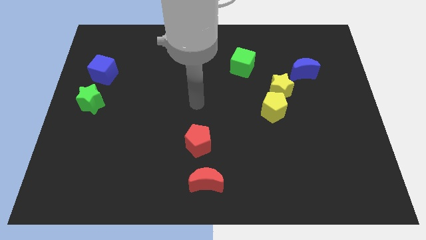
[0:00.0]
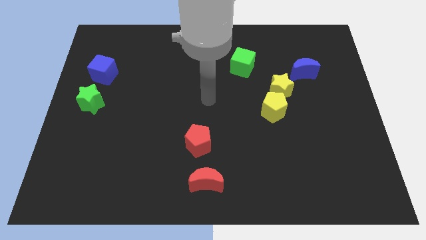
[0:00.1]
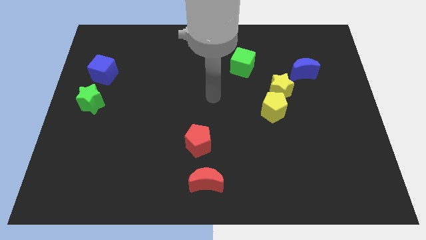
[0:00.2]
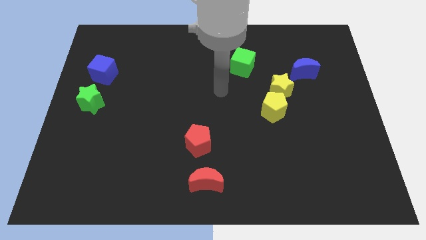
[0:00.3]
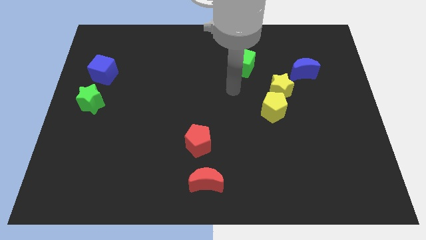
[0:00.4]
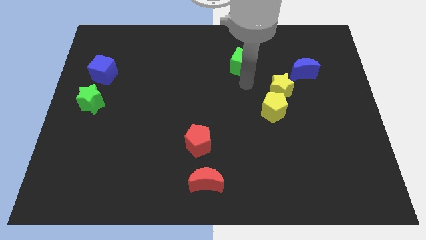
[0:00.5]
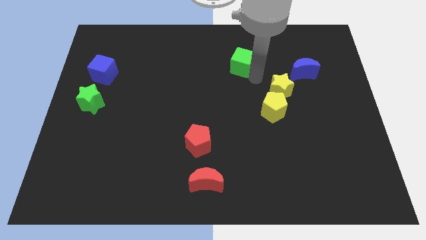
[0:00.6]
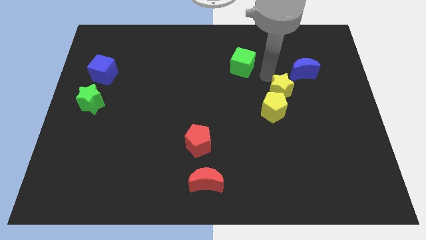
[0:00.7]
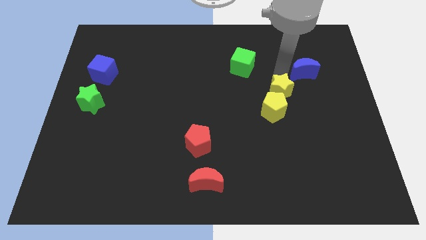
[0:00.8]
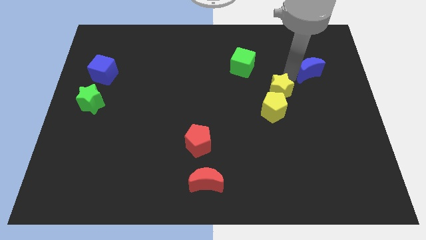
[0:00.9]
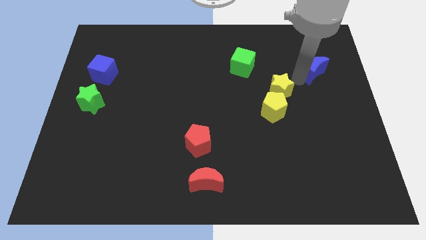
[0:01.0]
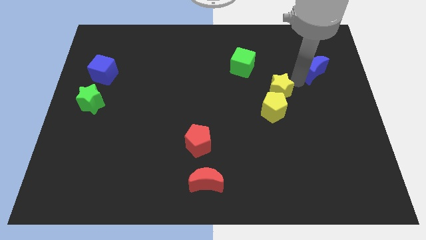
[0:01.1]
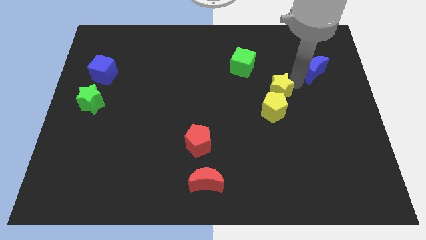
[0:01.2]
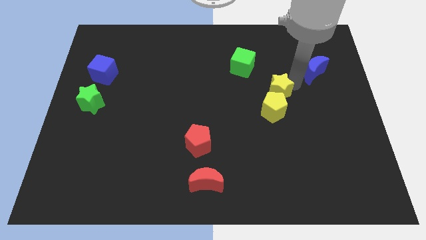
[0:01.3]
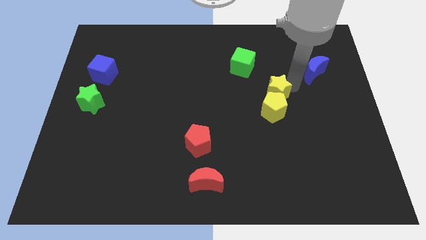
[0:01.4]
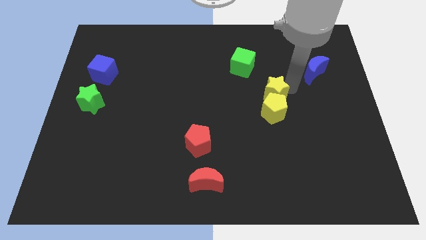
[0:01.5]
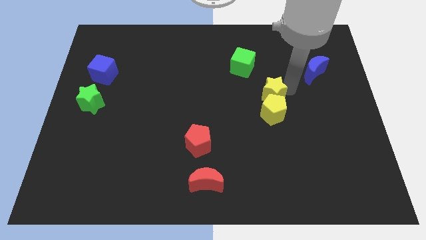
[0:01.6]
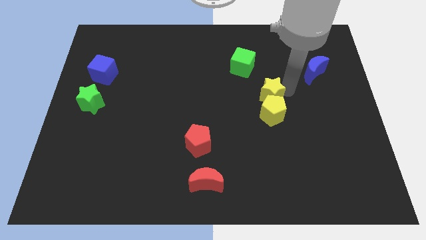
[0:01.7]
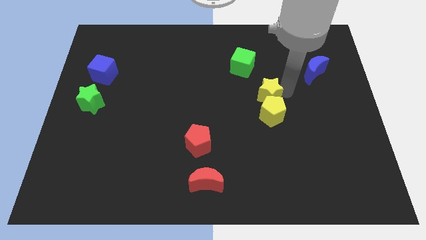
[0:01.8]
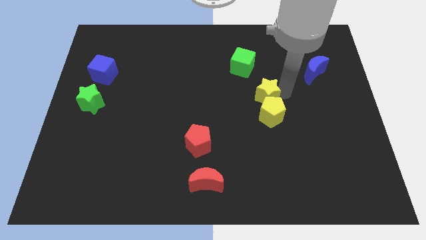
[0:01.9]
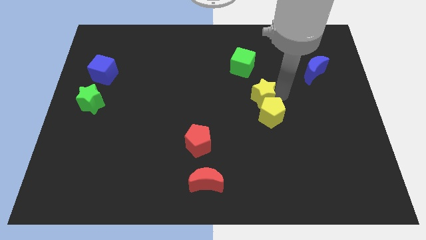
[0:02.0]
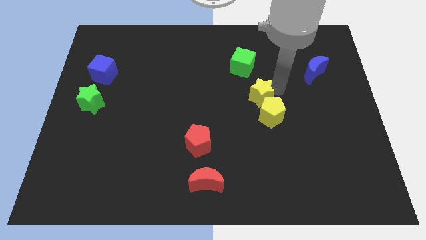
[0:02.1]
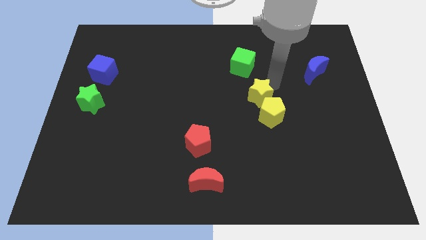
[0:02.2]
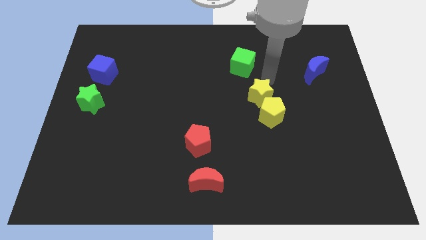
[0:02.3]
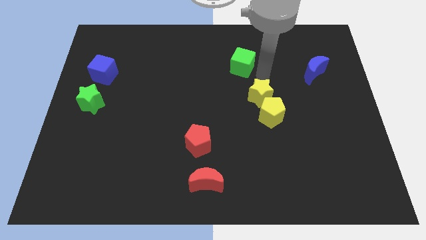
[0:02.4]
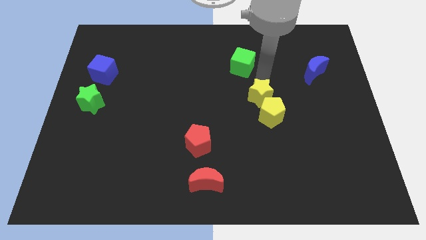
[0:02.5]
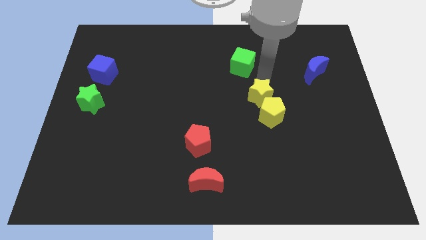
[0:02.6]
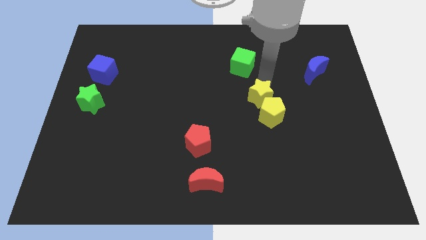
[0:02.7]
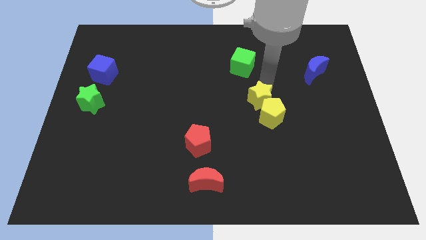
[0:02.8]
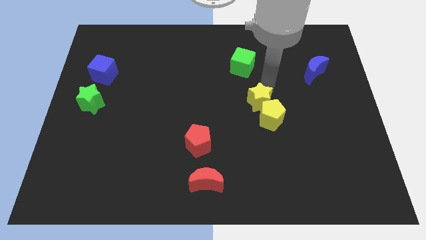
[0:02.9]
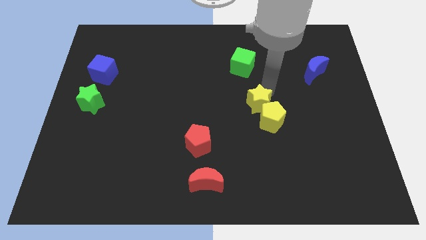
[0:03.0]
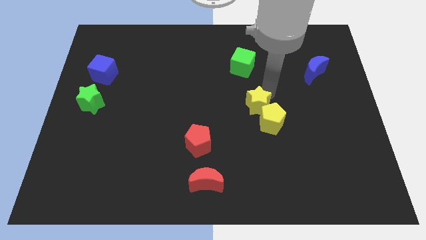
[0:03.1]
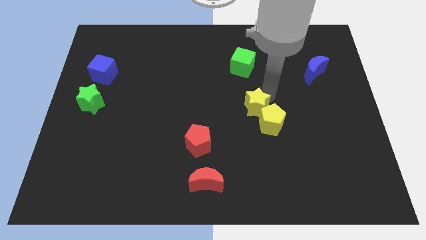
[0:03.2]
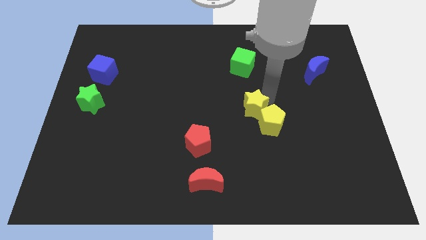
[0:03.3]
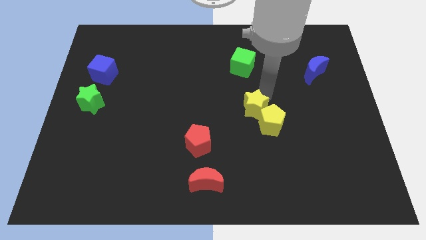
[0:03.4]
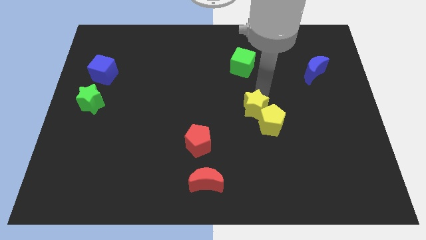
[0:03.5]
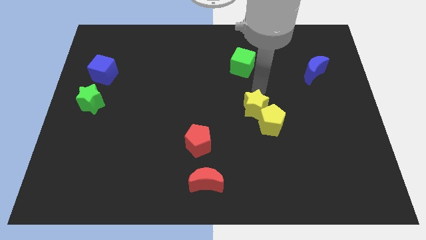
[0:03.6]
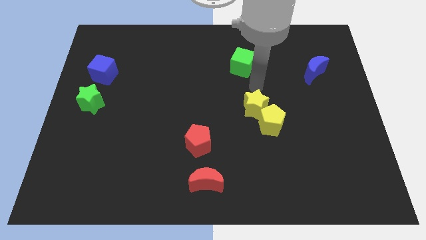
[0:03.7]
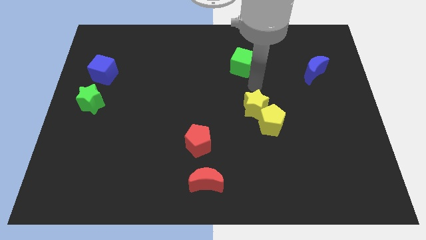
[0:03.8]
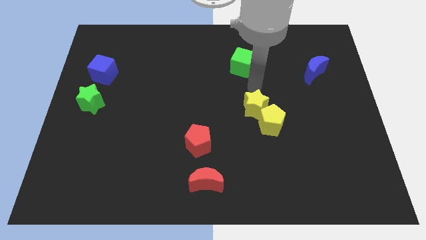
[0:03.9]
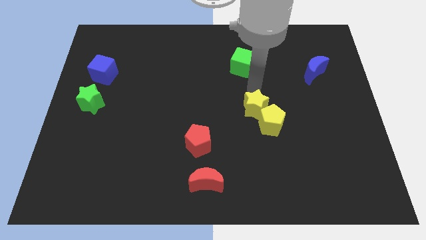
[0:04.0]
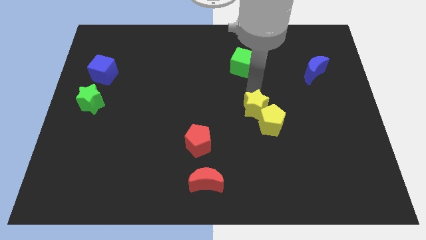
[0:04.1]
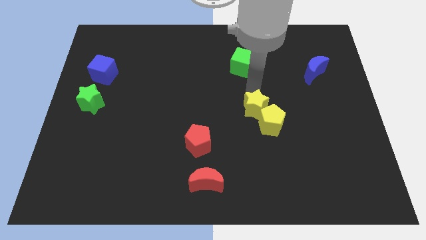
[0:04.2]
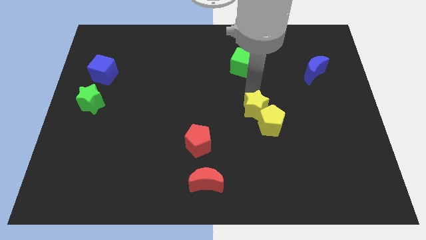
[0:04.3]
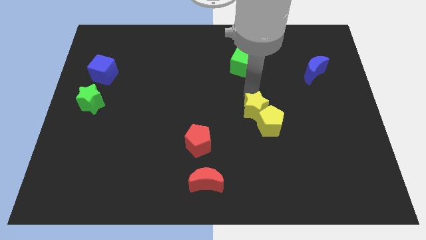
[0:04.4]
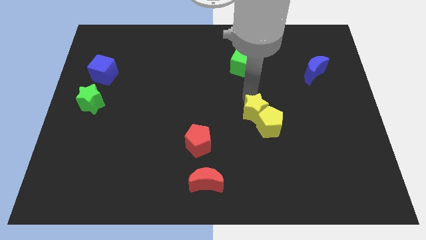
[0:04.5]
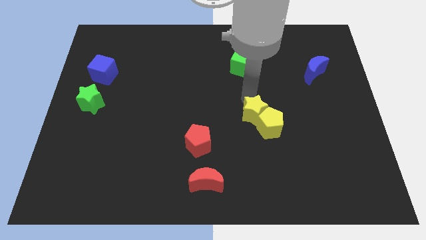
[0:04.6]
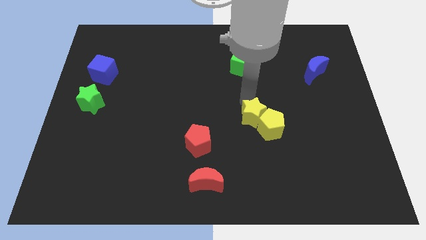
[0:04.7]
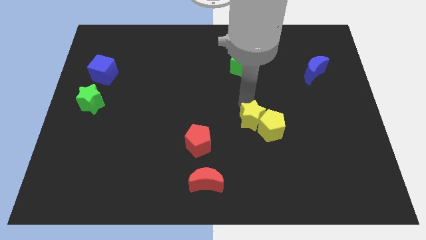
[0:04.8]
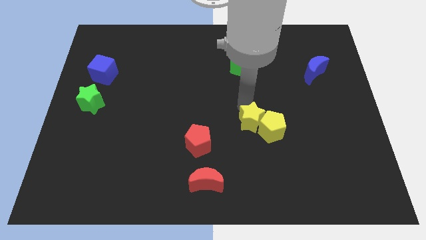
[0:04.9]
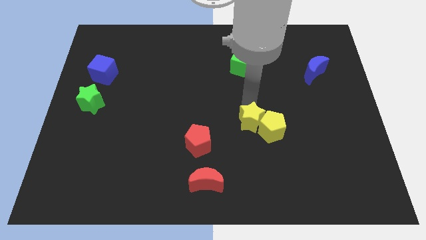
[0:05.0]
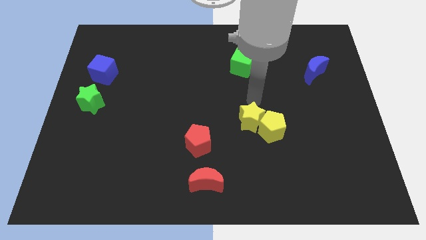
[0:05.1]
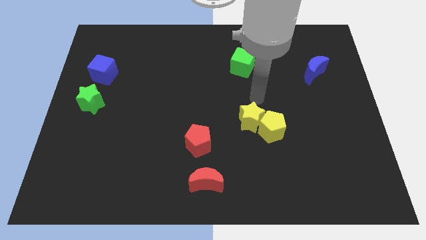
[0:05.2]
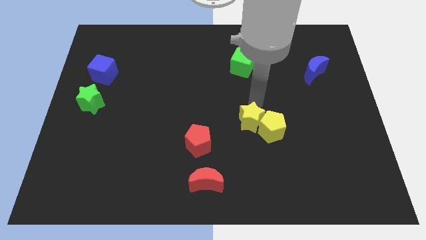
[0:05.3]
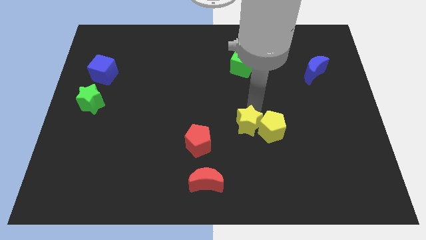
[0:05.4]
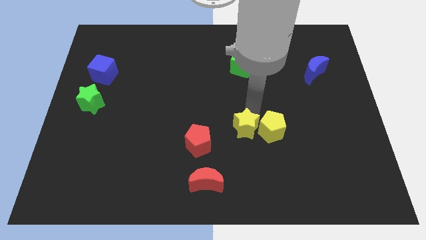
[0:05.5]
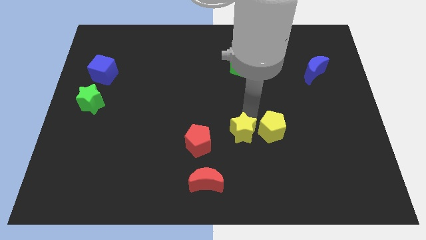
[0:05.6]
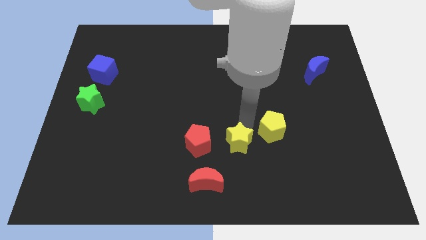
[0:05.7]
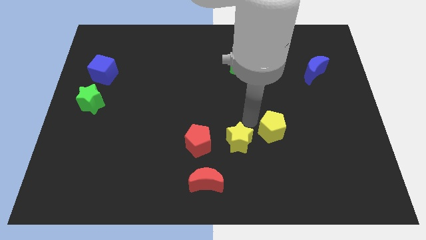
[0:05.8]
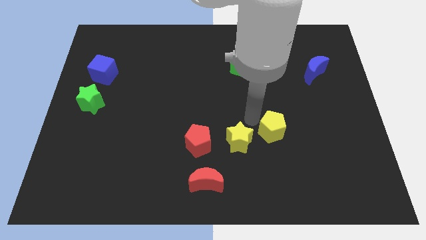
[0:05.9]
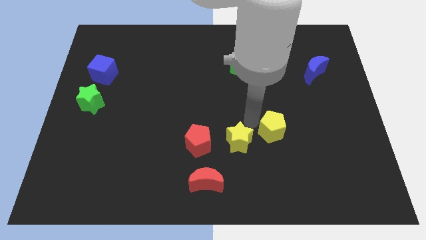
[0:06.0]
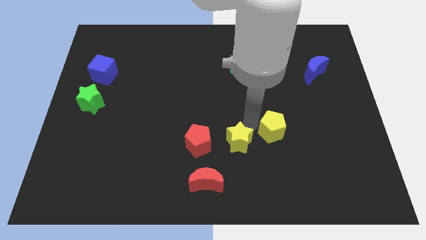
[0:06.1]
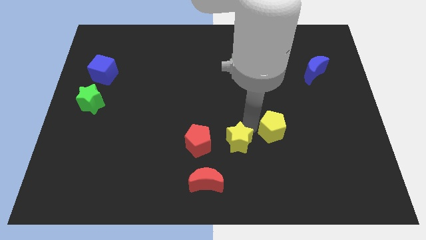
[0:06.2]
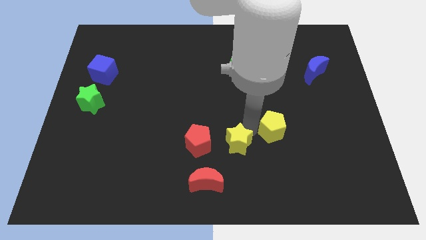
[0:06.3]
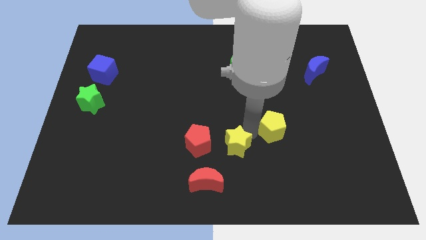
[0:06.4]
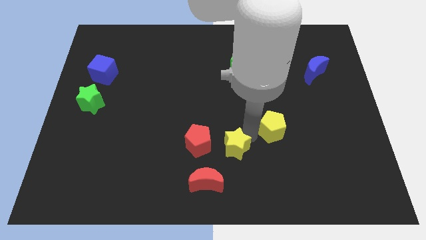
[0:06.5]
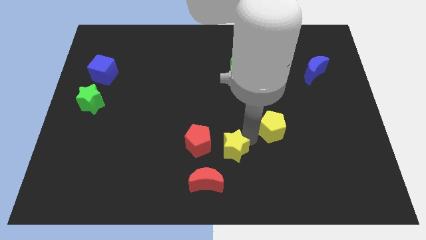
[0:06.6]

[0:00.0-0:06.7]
push the yellow star to the bottom right of the red pentagon

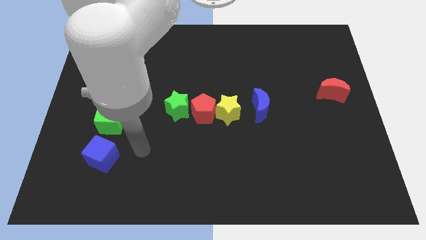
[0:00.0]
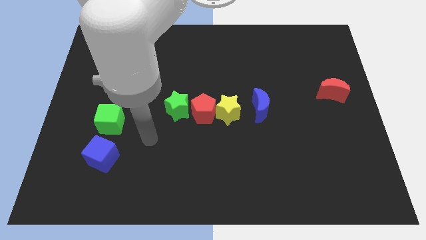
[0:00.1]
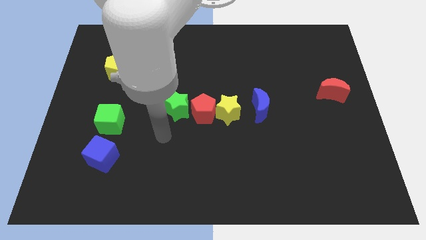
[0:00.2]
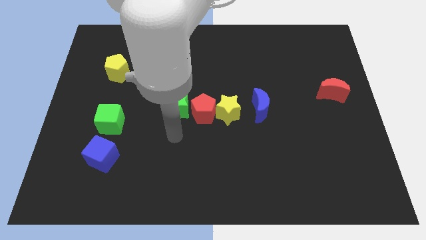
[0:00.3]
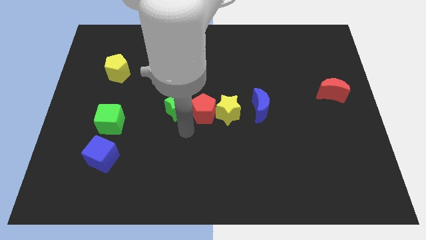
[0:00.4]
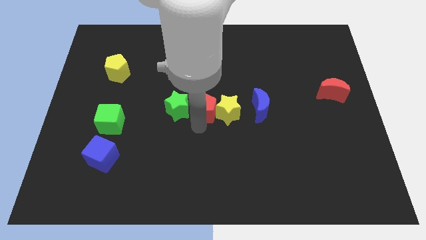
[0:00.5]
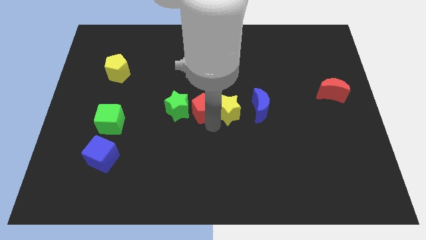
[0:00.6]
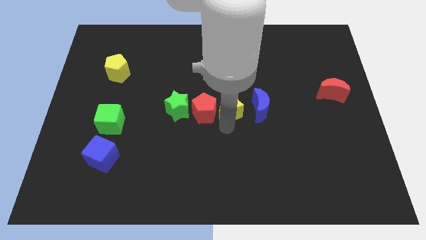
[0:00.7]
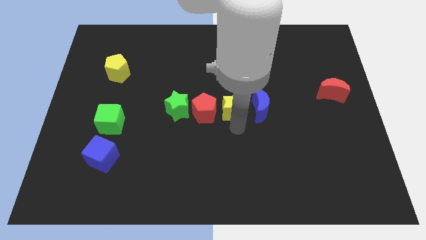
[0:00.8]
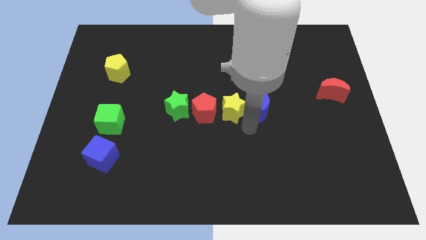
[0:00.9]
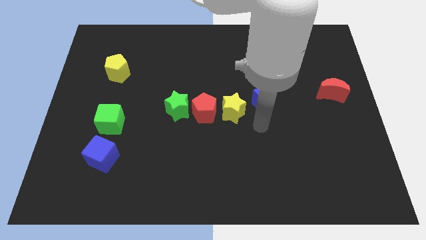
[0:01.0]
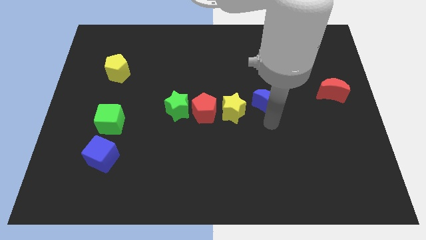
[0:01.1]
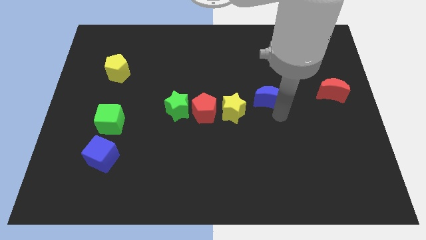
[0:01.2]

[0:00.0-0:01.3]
put the red moon to the right side of the blue moon
